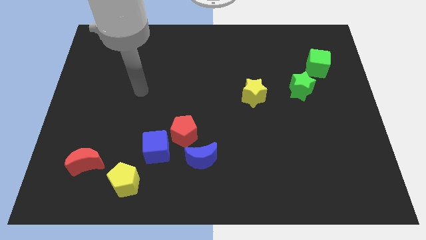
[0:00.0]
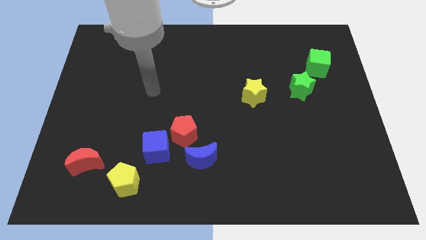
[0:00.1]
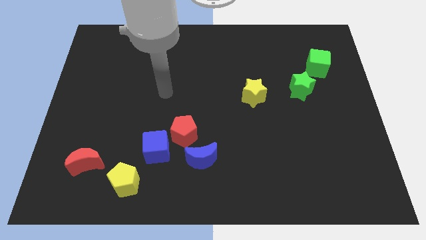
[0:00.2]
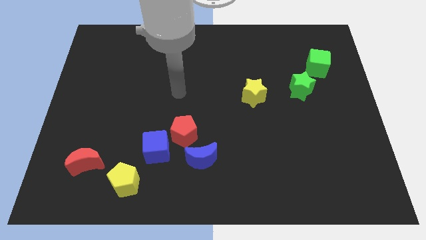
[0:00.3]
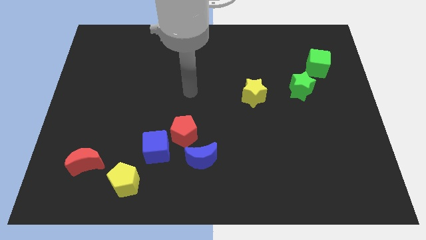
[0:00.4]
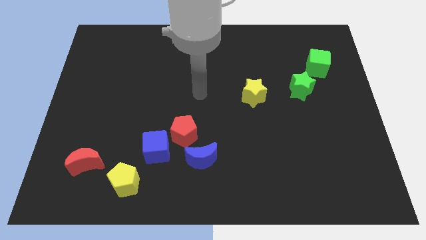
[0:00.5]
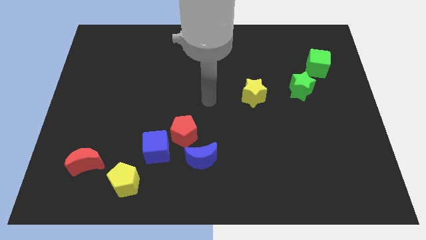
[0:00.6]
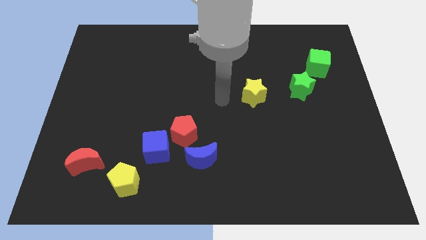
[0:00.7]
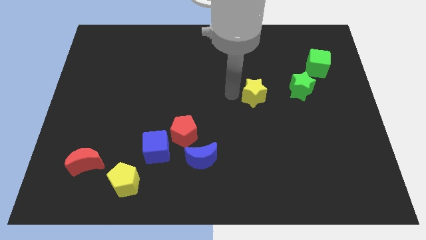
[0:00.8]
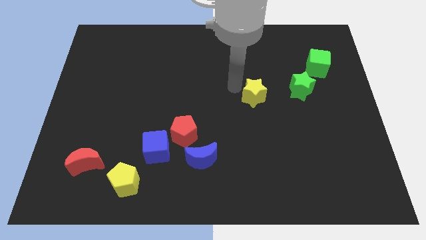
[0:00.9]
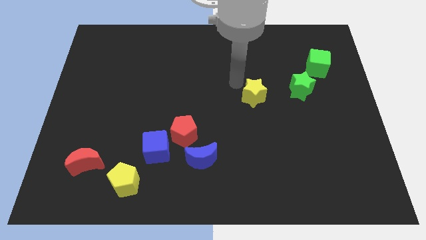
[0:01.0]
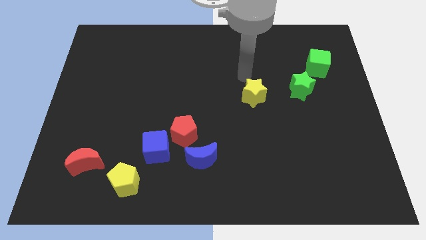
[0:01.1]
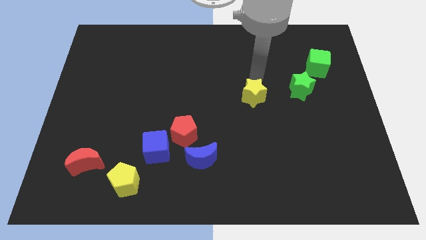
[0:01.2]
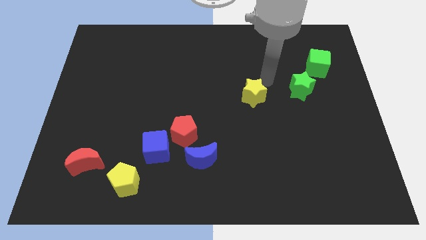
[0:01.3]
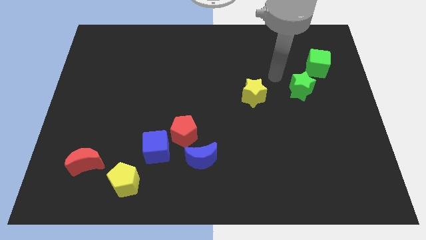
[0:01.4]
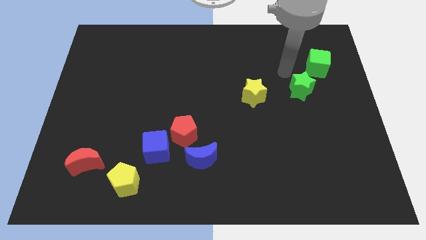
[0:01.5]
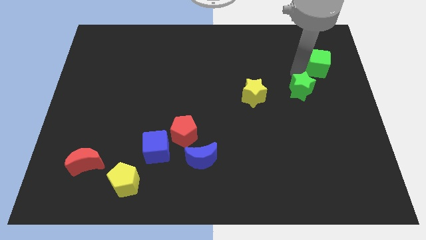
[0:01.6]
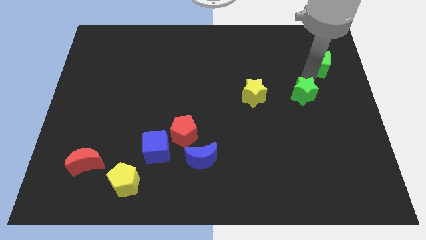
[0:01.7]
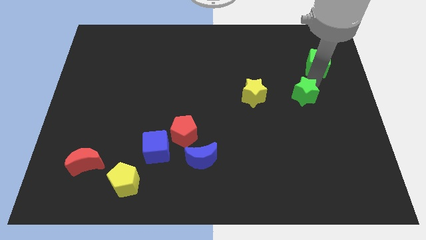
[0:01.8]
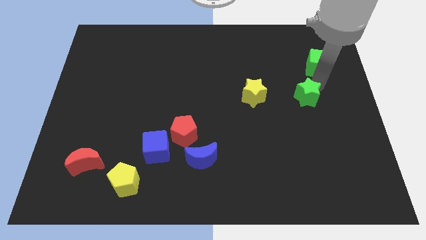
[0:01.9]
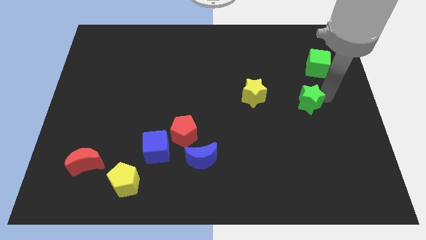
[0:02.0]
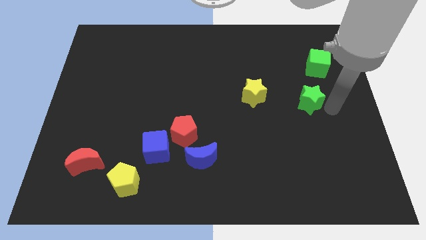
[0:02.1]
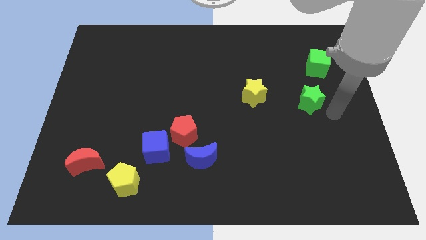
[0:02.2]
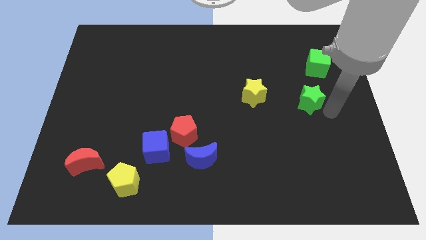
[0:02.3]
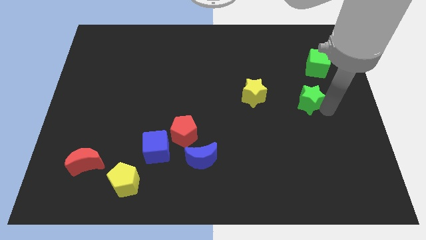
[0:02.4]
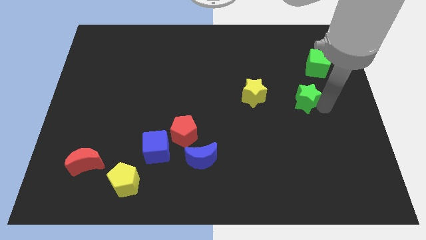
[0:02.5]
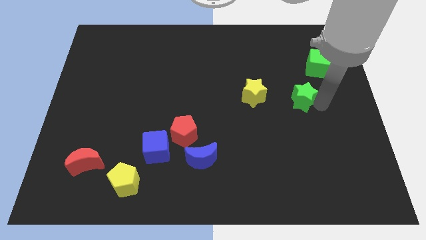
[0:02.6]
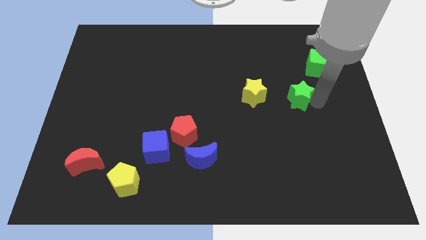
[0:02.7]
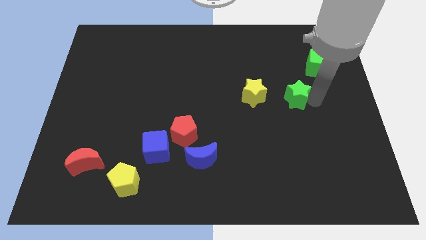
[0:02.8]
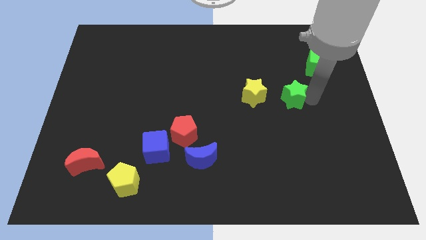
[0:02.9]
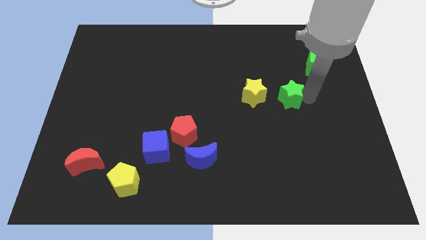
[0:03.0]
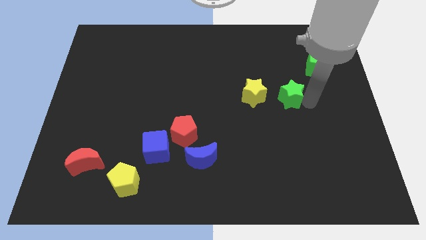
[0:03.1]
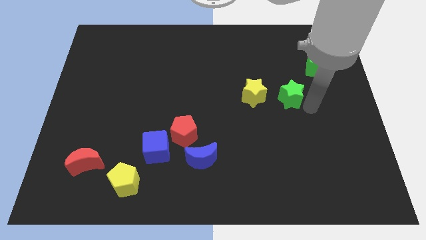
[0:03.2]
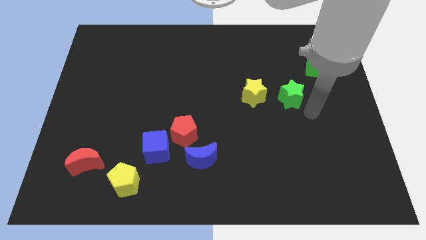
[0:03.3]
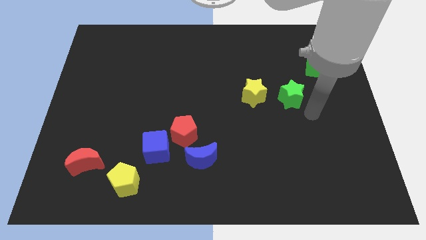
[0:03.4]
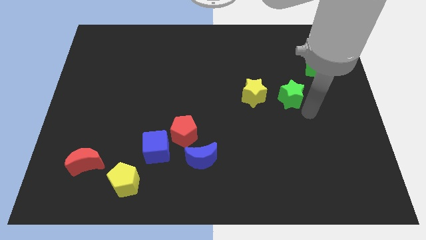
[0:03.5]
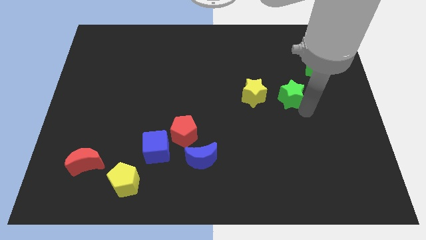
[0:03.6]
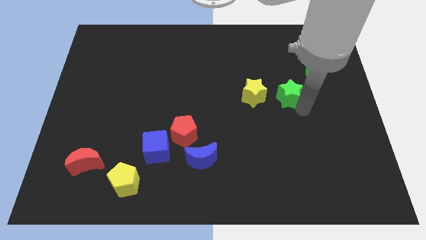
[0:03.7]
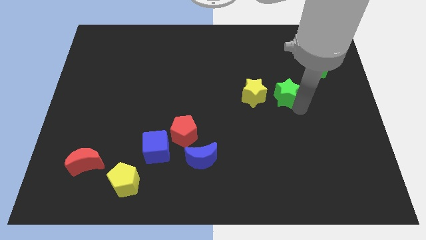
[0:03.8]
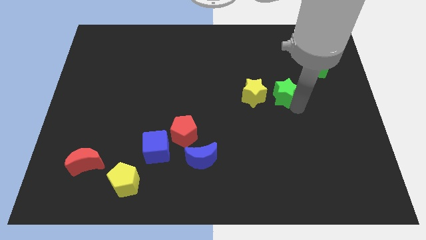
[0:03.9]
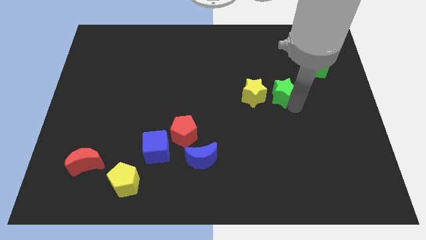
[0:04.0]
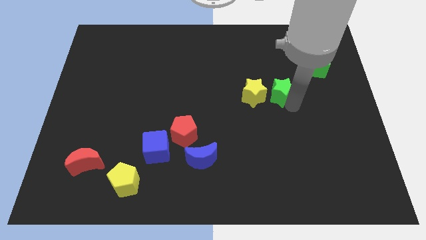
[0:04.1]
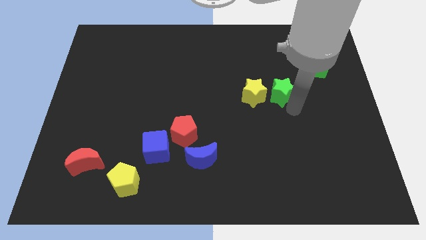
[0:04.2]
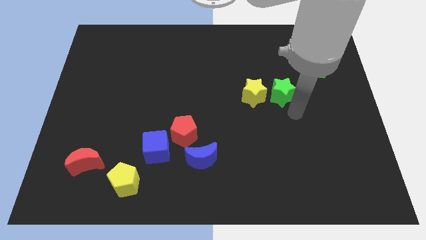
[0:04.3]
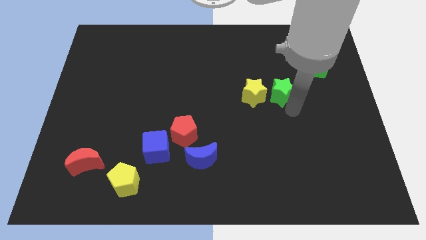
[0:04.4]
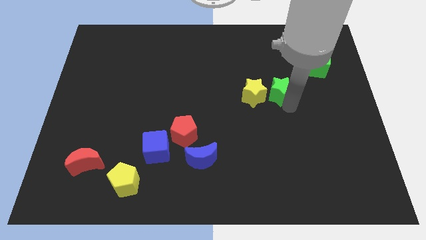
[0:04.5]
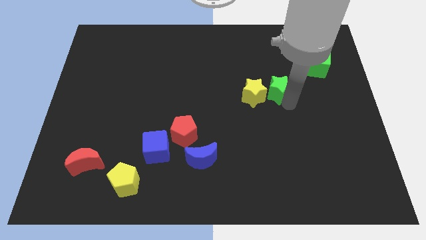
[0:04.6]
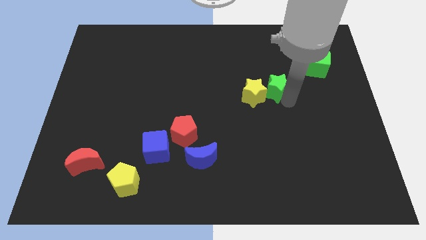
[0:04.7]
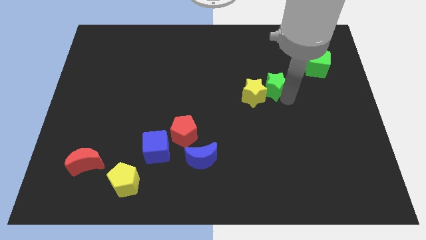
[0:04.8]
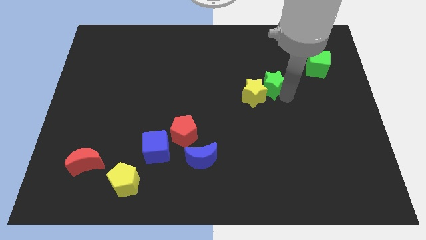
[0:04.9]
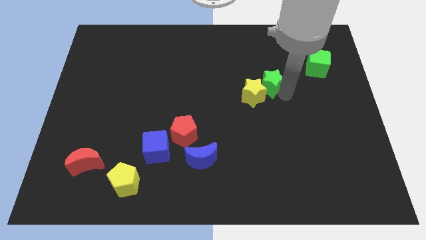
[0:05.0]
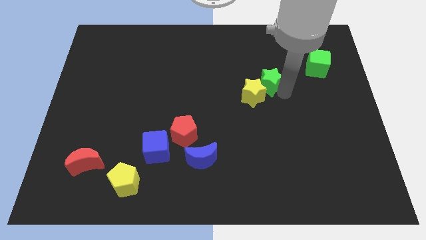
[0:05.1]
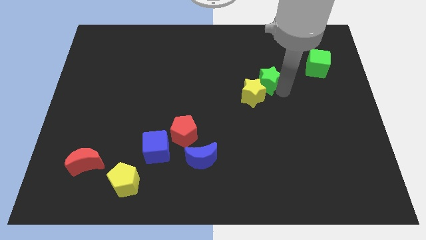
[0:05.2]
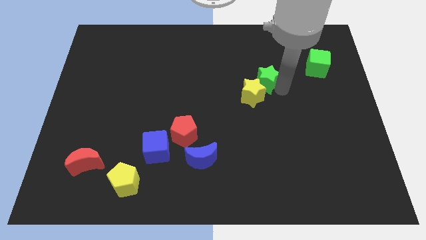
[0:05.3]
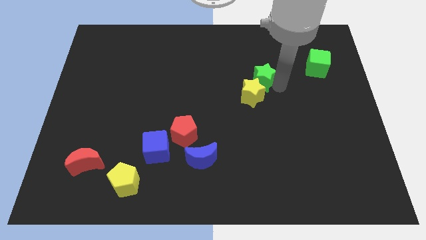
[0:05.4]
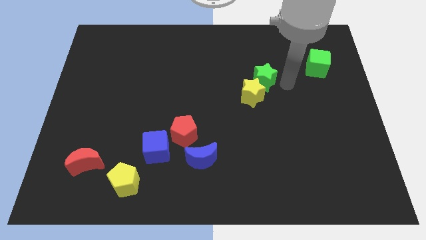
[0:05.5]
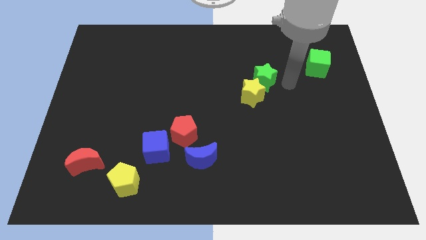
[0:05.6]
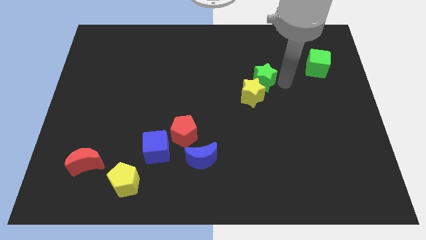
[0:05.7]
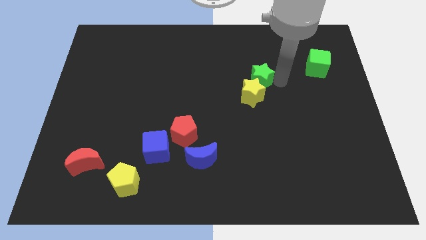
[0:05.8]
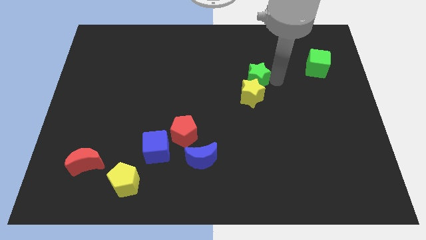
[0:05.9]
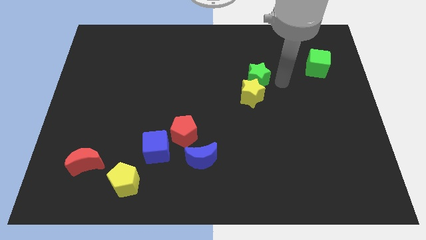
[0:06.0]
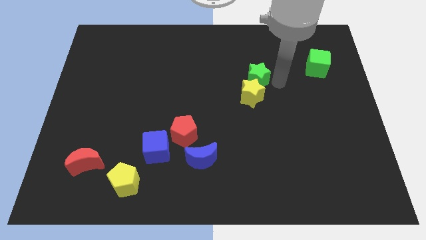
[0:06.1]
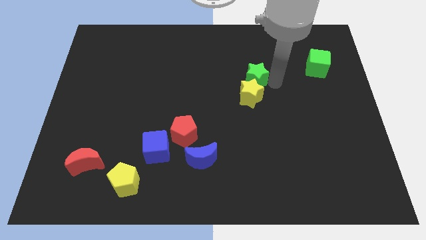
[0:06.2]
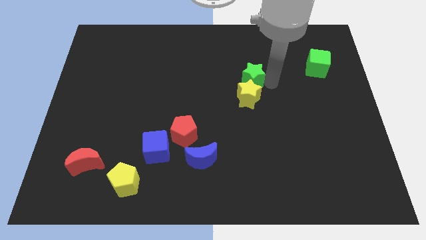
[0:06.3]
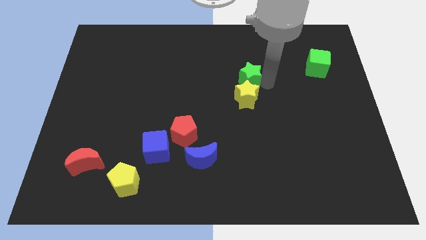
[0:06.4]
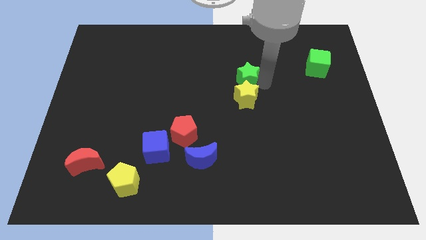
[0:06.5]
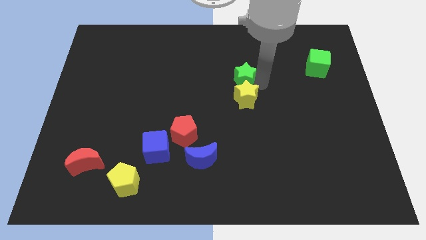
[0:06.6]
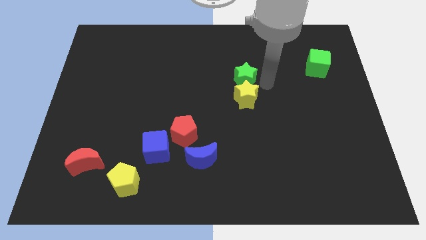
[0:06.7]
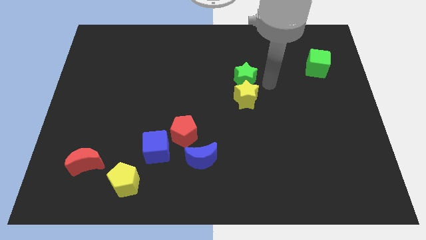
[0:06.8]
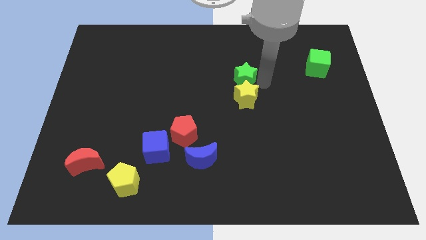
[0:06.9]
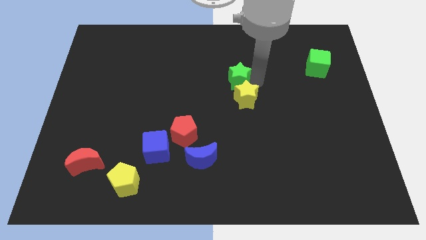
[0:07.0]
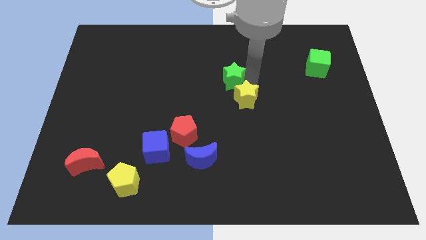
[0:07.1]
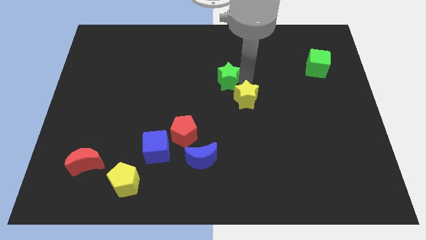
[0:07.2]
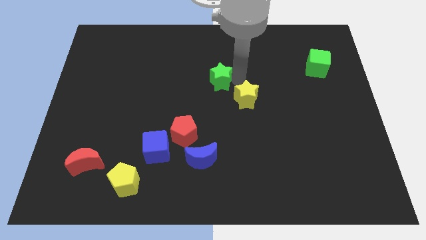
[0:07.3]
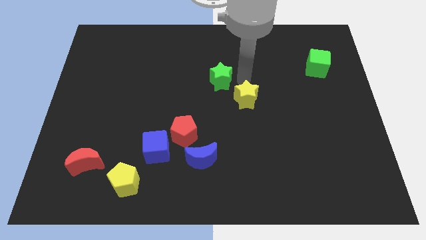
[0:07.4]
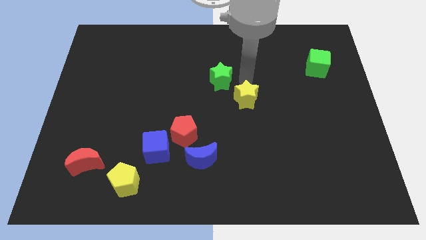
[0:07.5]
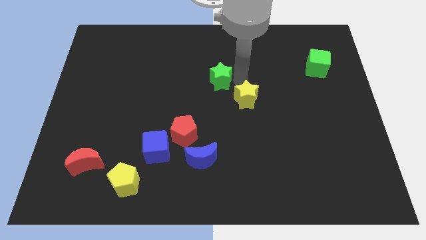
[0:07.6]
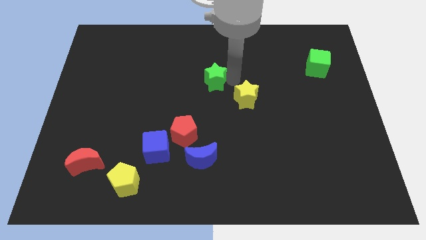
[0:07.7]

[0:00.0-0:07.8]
move the green star to the left

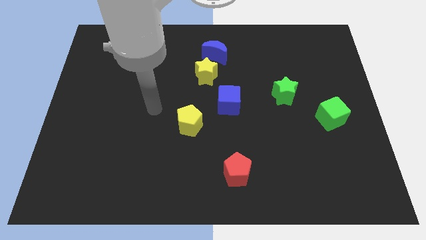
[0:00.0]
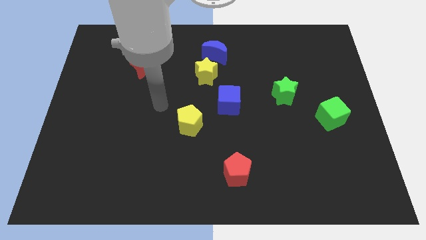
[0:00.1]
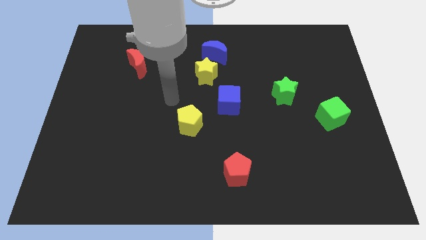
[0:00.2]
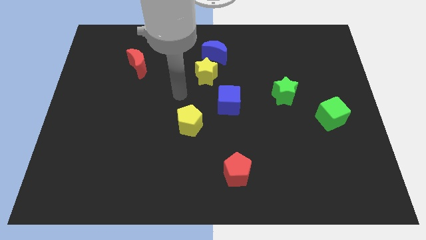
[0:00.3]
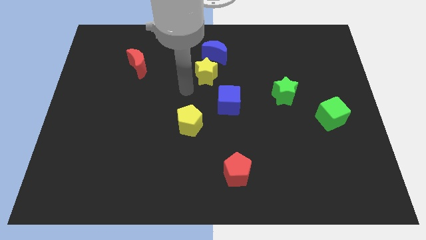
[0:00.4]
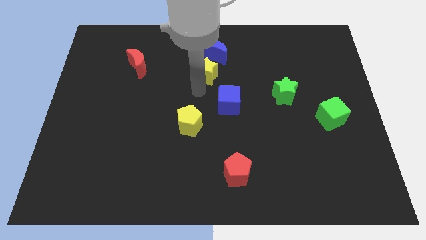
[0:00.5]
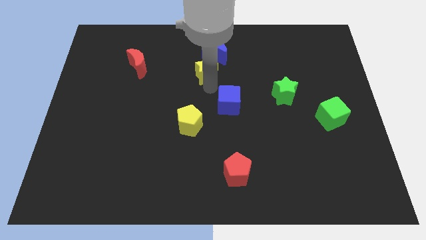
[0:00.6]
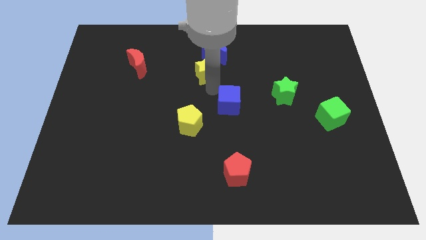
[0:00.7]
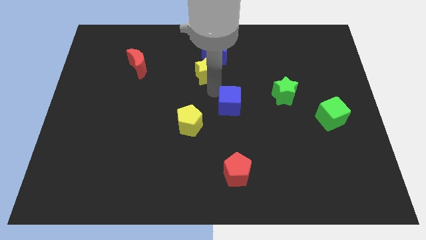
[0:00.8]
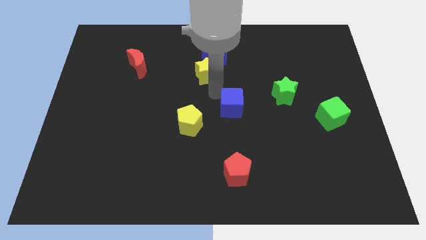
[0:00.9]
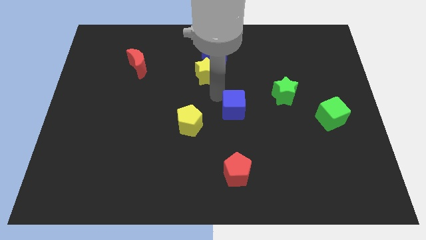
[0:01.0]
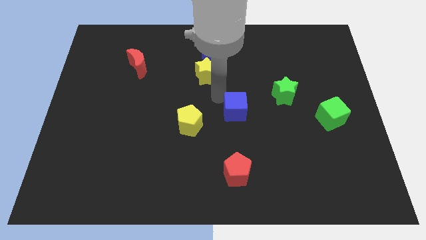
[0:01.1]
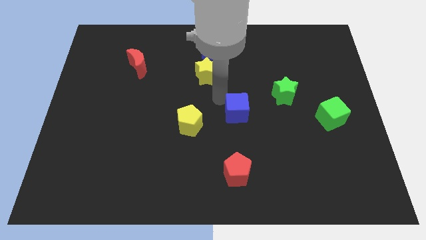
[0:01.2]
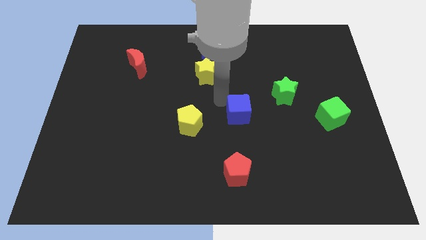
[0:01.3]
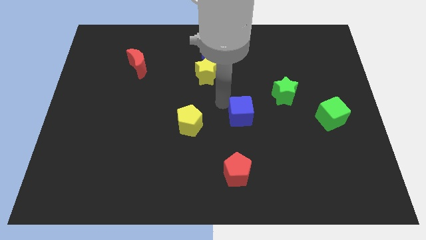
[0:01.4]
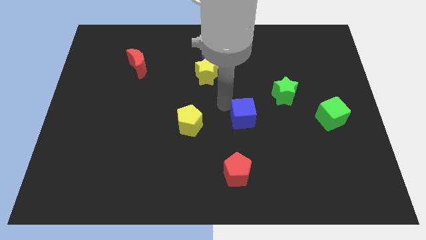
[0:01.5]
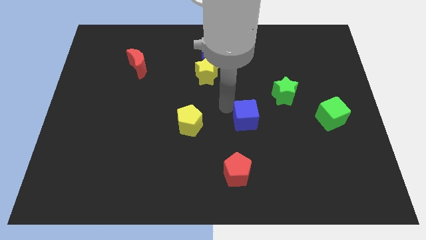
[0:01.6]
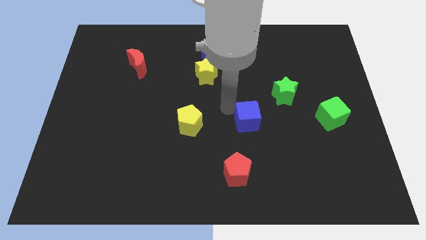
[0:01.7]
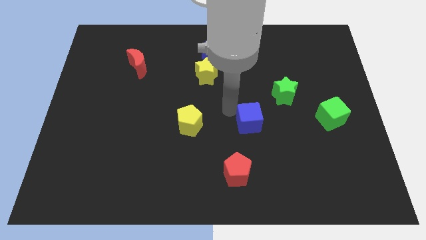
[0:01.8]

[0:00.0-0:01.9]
slightly push the blue cube diagonally downwards and to the right
